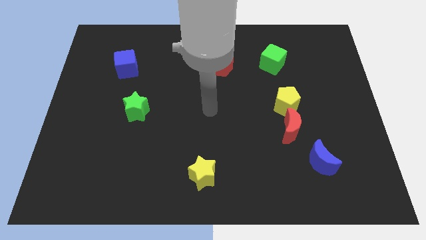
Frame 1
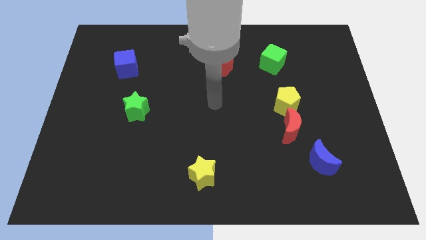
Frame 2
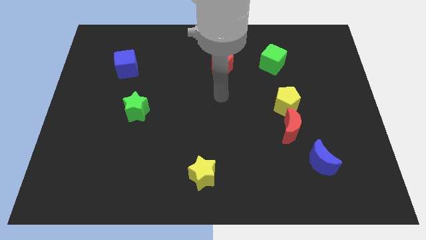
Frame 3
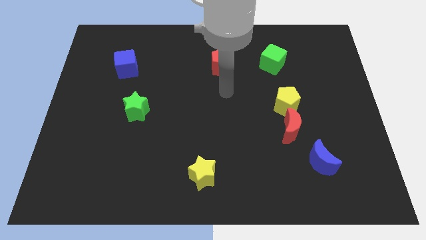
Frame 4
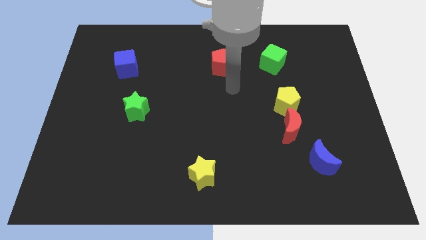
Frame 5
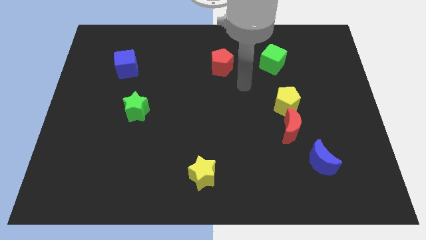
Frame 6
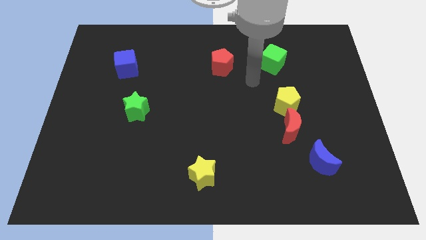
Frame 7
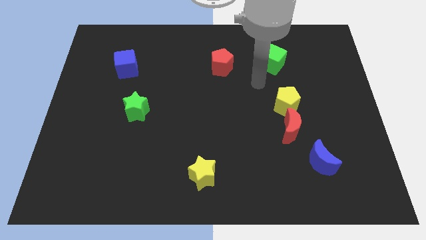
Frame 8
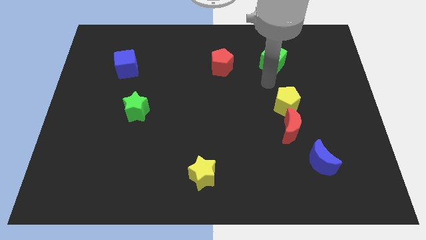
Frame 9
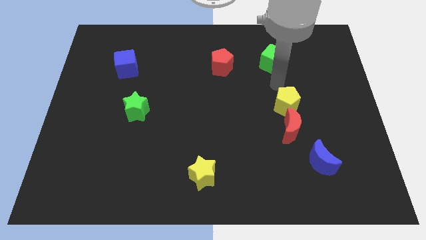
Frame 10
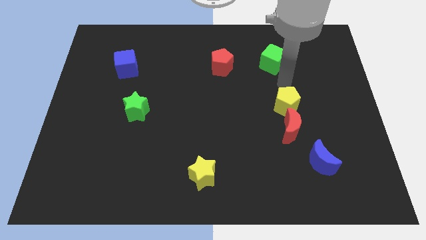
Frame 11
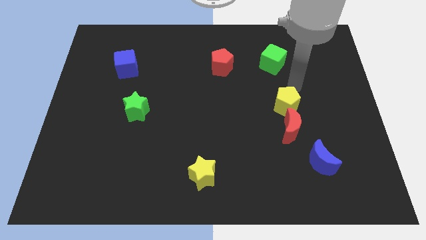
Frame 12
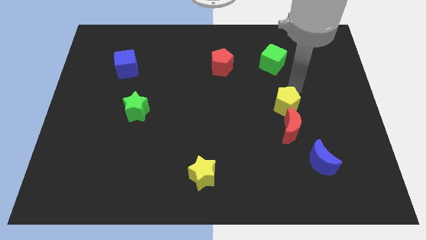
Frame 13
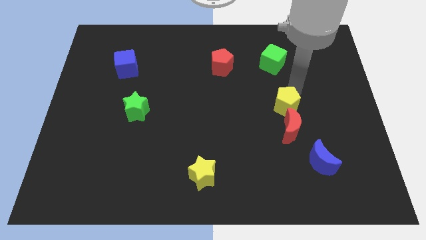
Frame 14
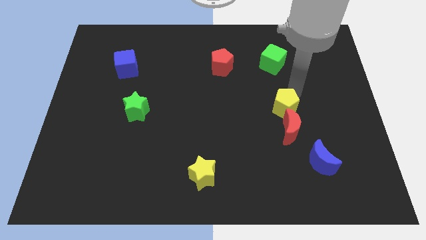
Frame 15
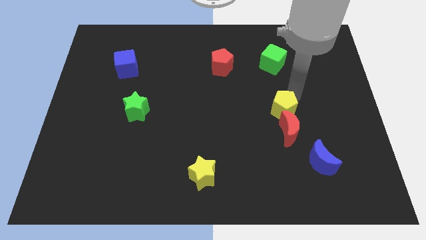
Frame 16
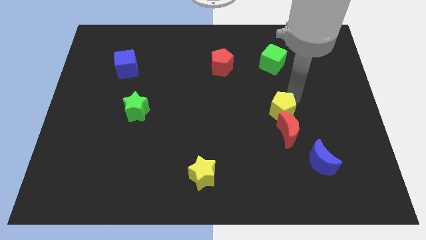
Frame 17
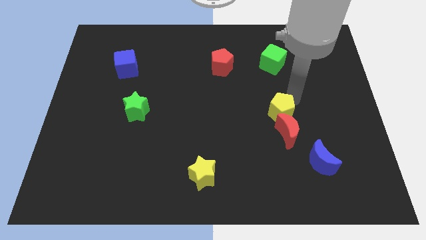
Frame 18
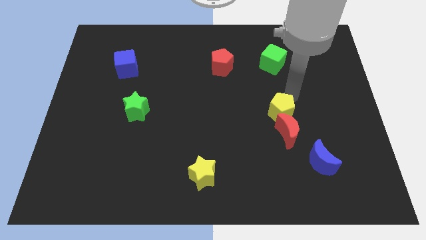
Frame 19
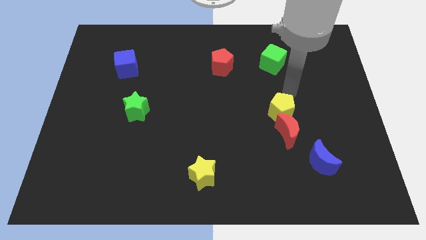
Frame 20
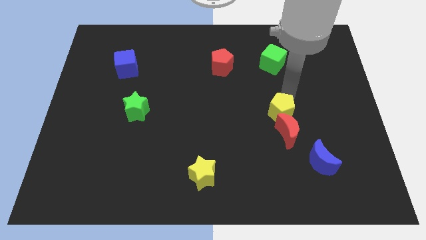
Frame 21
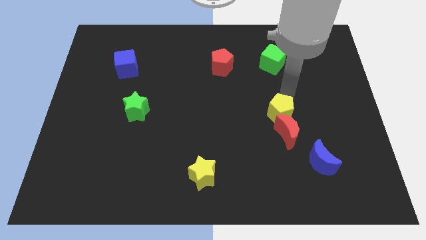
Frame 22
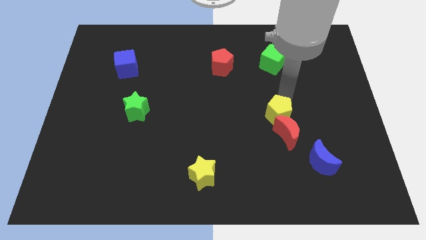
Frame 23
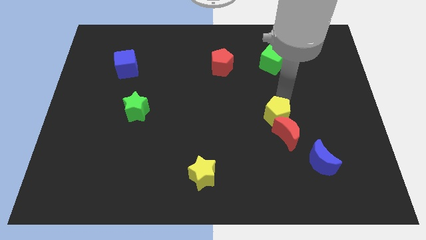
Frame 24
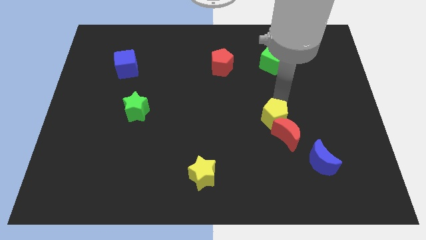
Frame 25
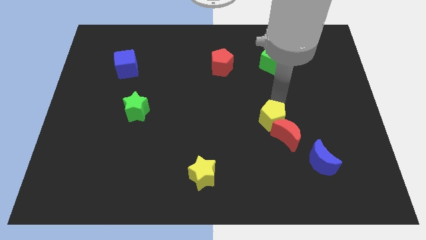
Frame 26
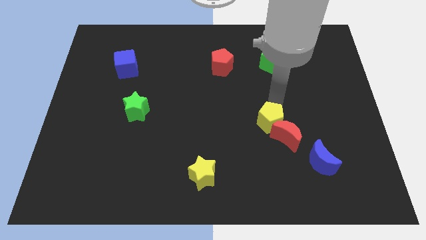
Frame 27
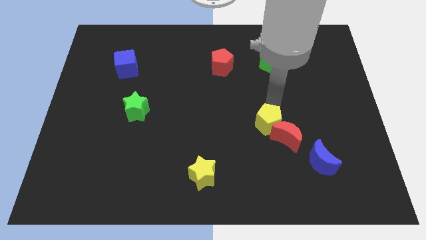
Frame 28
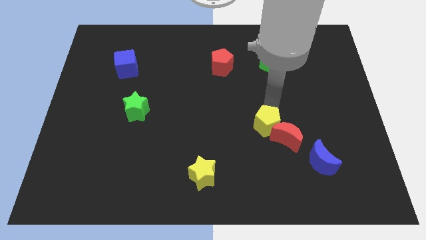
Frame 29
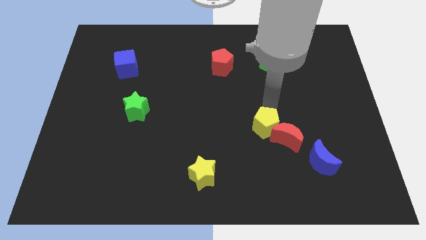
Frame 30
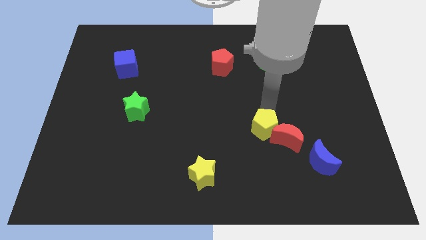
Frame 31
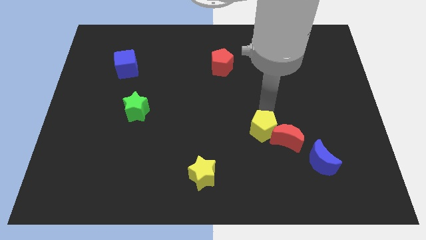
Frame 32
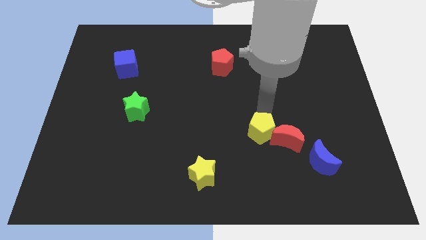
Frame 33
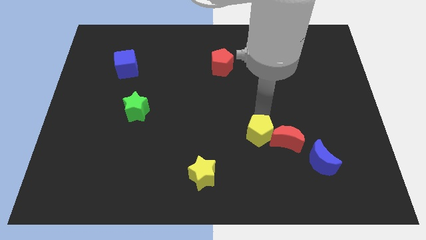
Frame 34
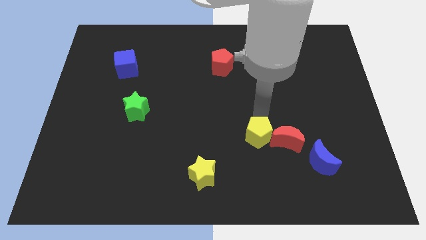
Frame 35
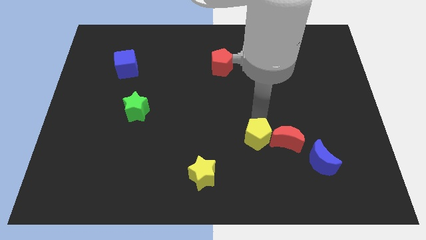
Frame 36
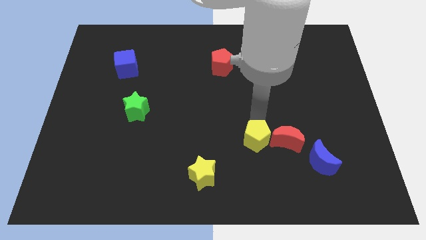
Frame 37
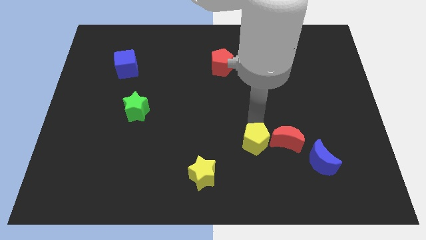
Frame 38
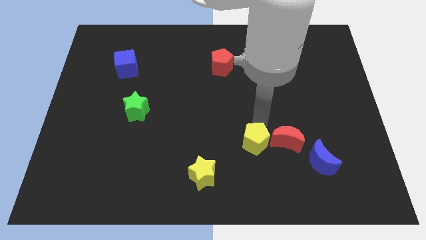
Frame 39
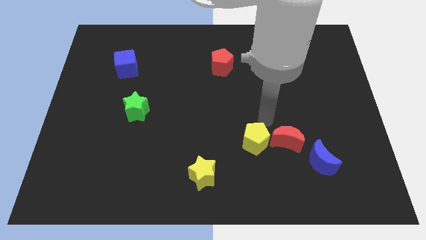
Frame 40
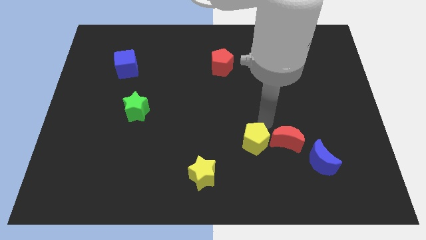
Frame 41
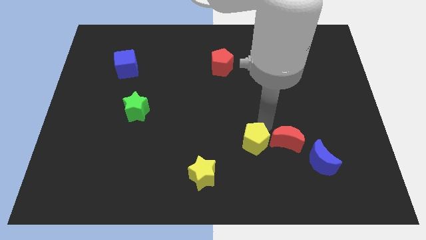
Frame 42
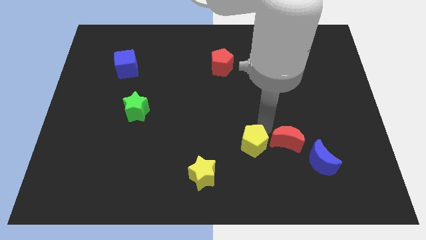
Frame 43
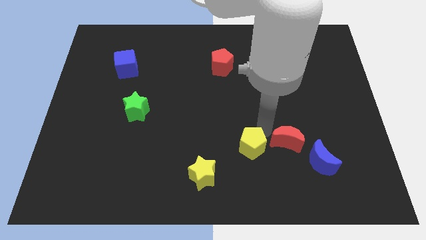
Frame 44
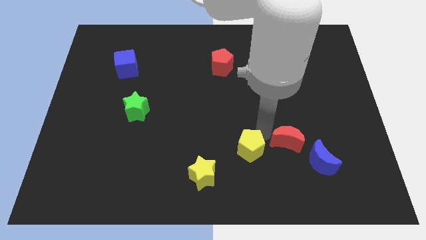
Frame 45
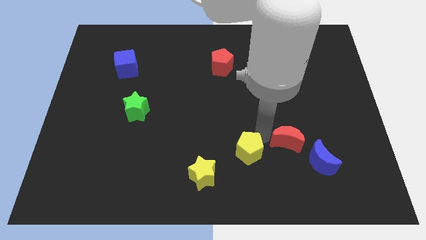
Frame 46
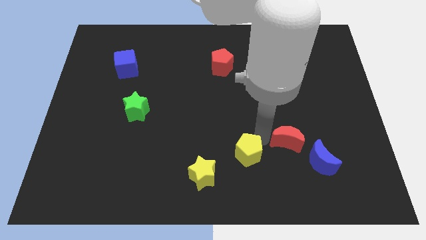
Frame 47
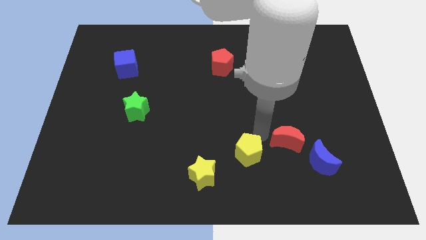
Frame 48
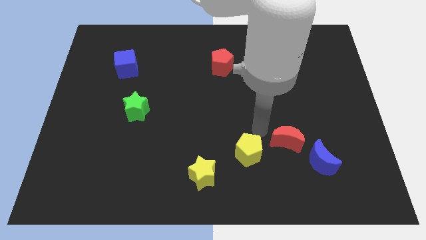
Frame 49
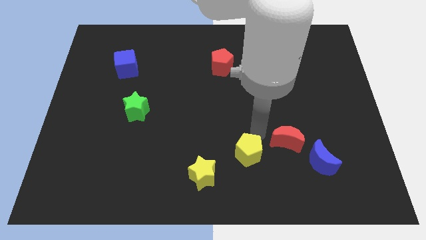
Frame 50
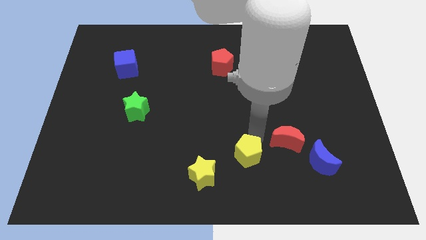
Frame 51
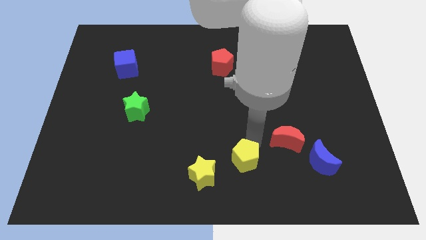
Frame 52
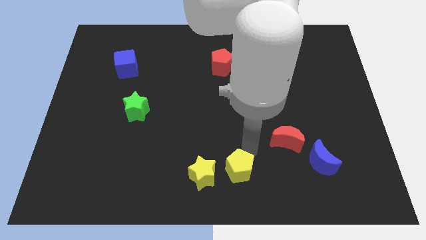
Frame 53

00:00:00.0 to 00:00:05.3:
put the yellow pentagon to the bottom

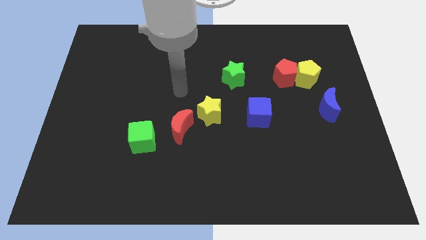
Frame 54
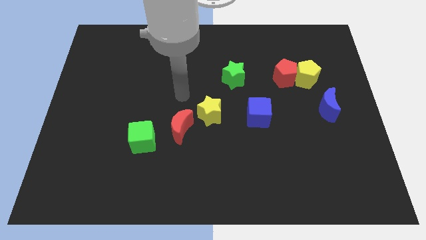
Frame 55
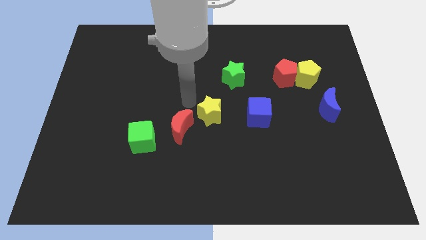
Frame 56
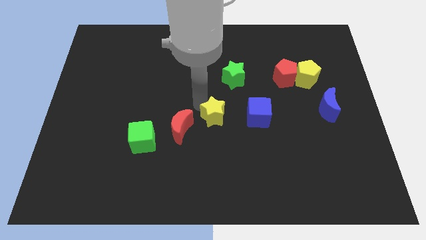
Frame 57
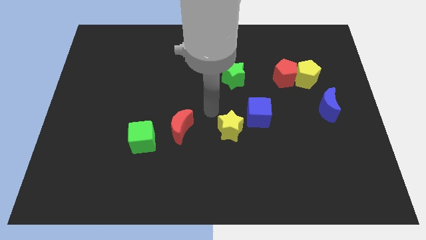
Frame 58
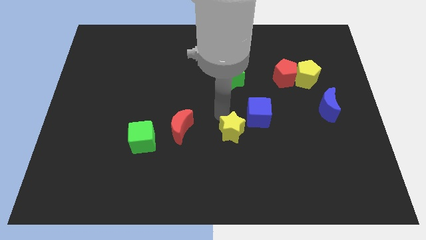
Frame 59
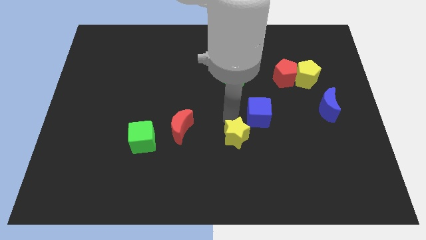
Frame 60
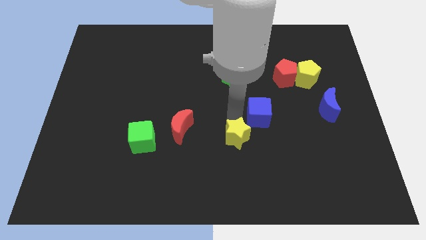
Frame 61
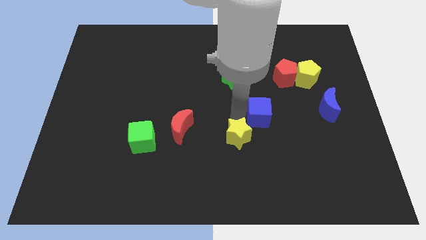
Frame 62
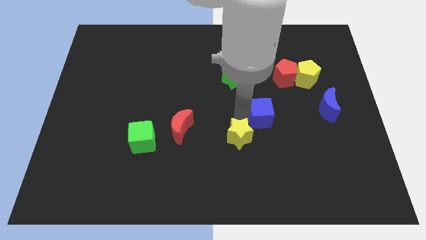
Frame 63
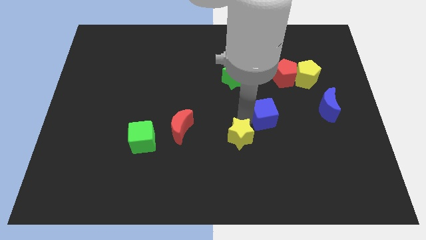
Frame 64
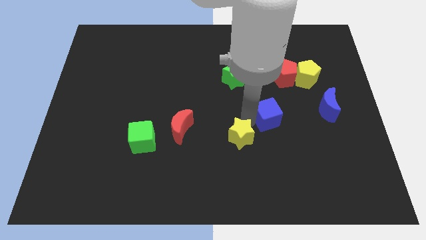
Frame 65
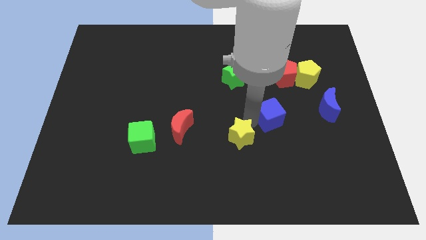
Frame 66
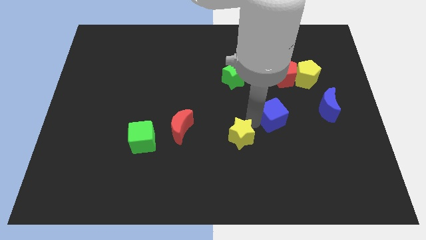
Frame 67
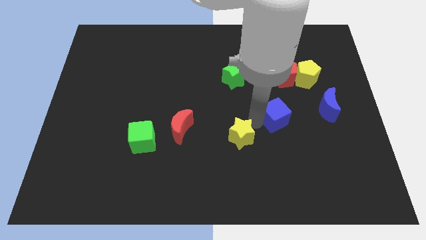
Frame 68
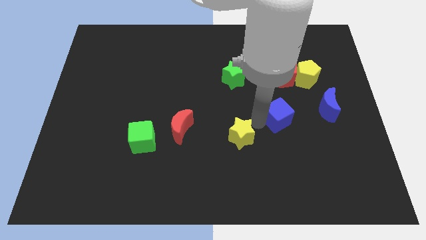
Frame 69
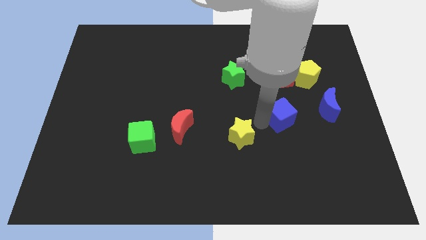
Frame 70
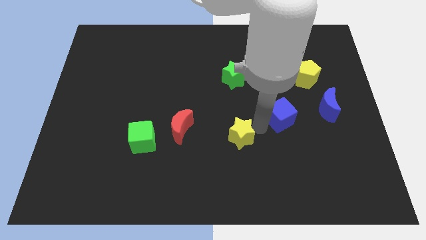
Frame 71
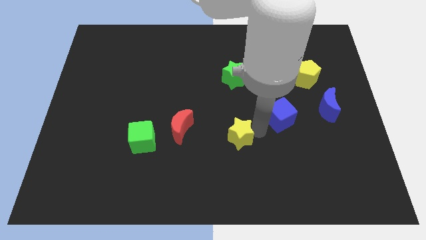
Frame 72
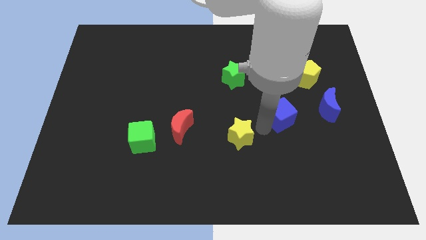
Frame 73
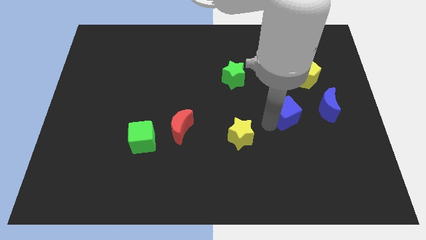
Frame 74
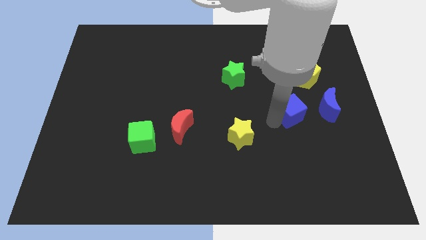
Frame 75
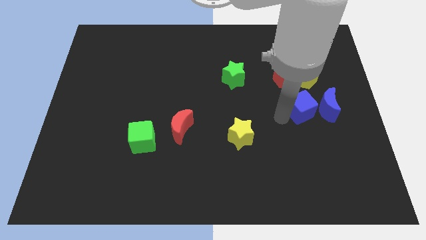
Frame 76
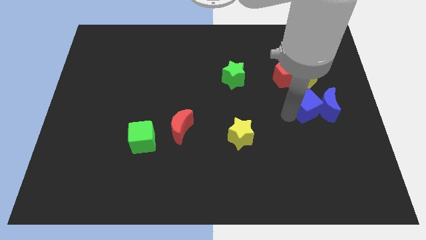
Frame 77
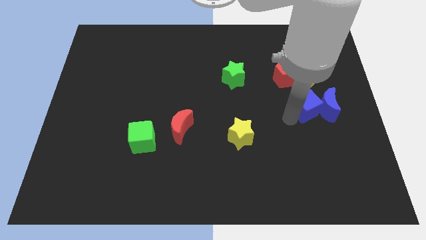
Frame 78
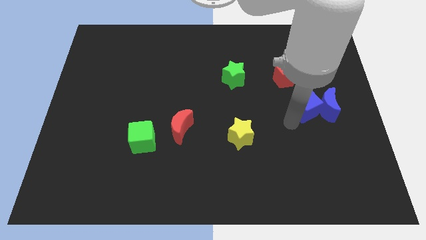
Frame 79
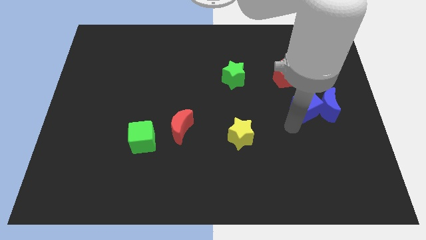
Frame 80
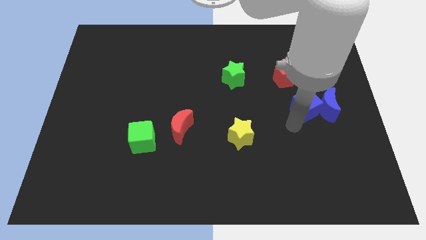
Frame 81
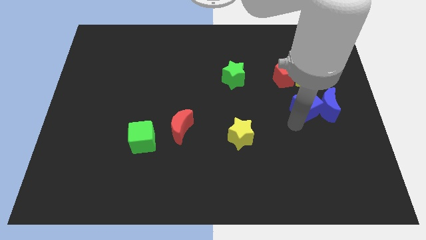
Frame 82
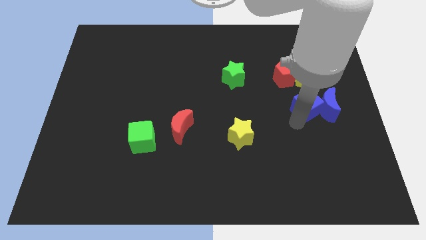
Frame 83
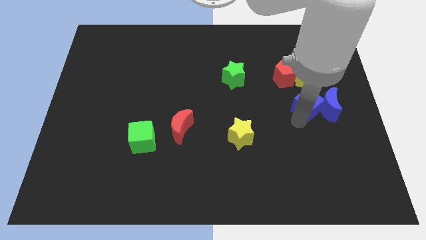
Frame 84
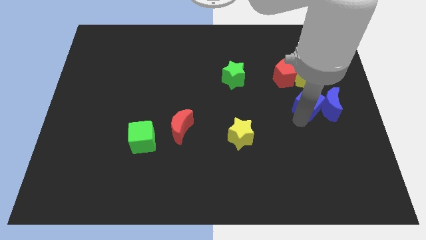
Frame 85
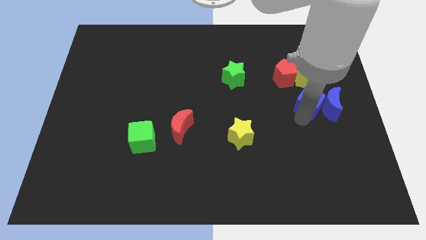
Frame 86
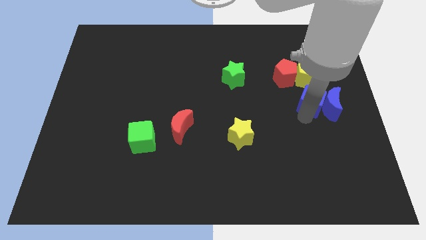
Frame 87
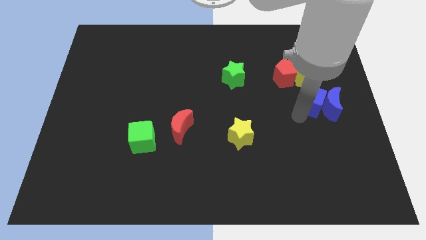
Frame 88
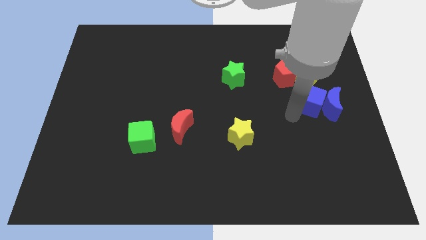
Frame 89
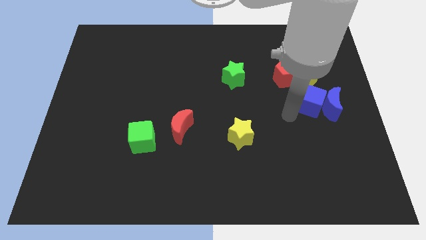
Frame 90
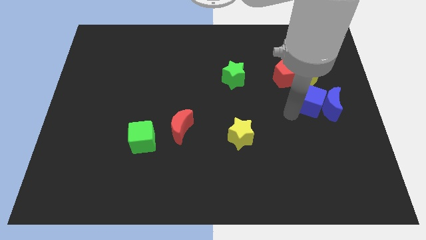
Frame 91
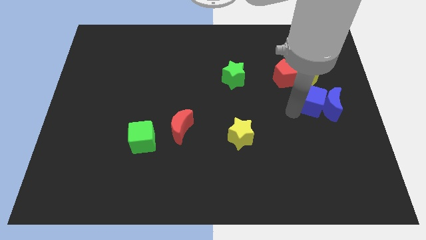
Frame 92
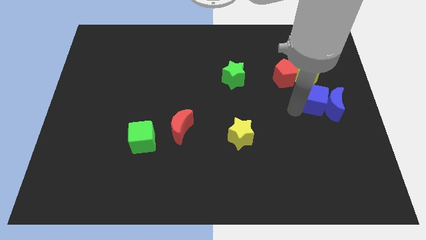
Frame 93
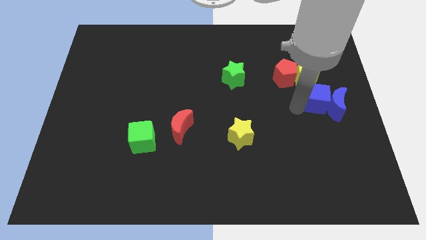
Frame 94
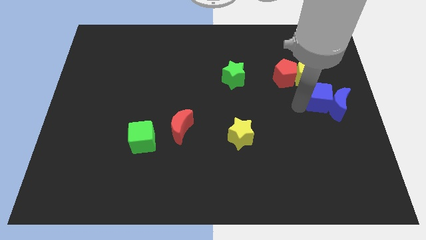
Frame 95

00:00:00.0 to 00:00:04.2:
put the blue cube to the right side
